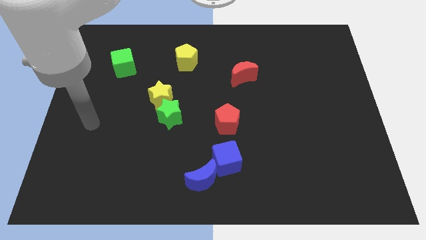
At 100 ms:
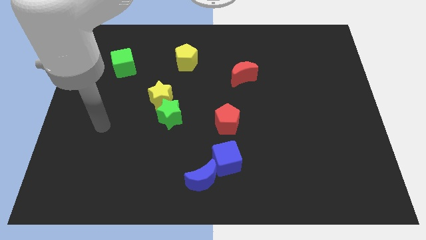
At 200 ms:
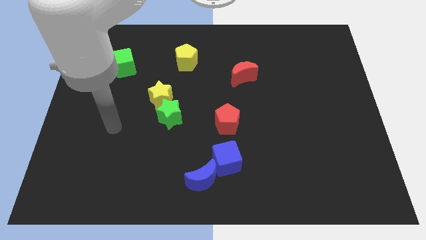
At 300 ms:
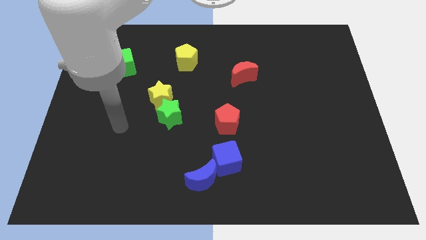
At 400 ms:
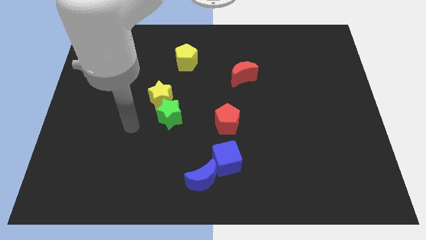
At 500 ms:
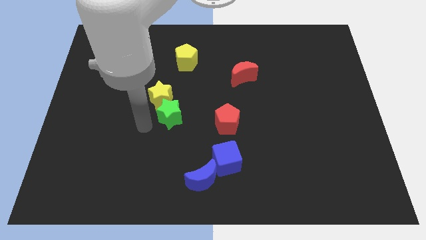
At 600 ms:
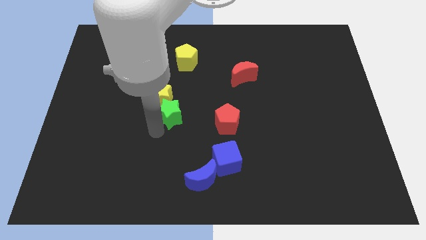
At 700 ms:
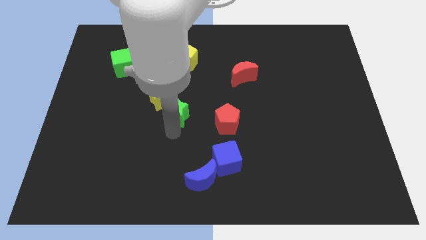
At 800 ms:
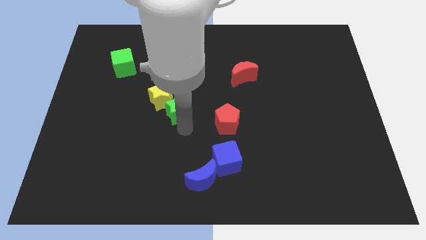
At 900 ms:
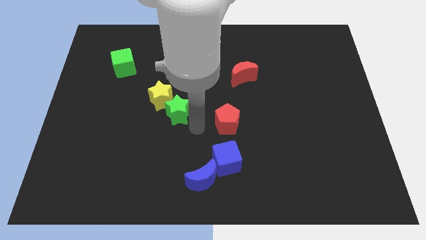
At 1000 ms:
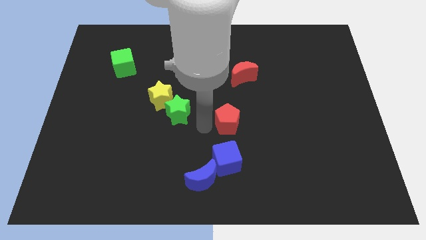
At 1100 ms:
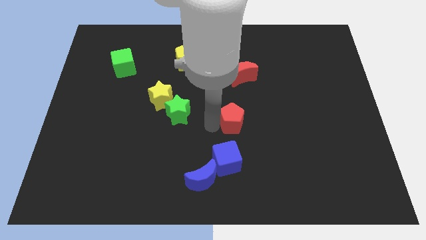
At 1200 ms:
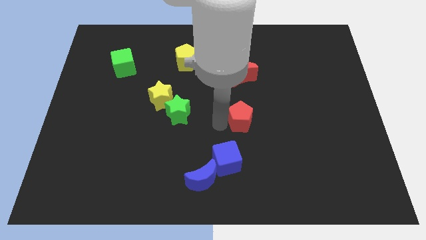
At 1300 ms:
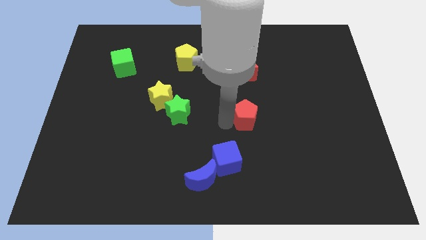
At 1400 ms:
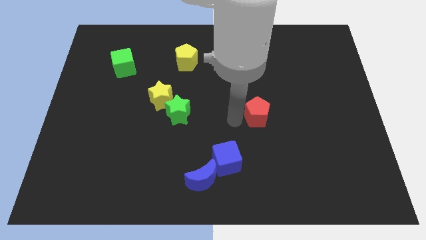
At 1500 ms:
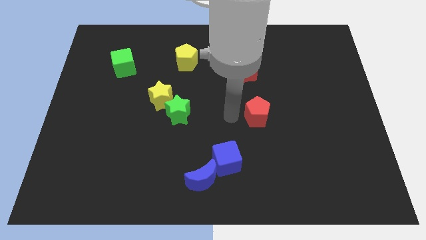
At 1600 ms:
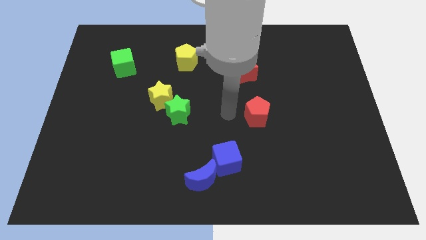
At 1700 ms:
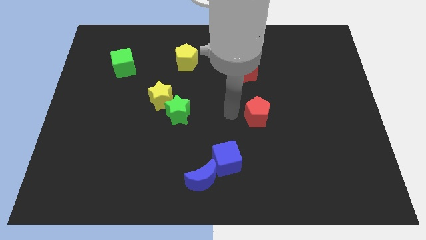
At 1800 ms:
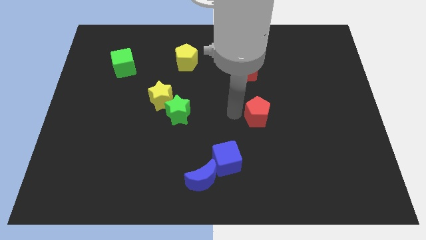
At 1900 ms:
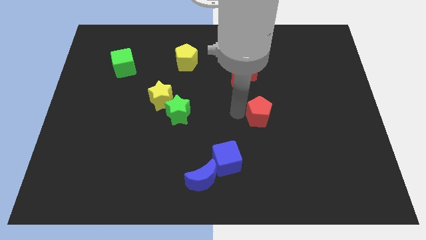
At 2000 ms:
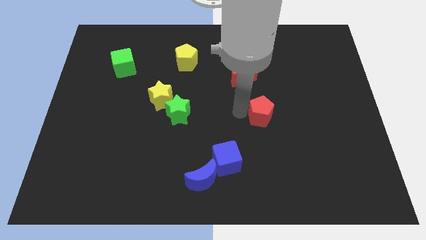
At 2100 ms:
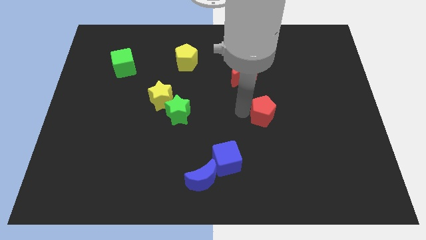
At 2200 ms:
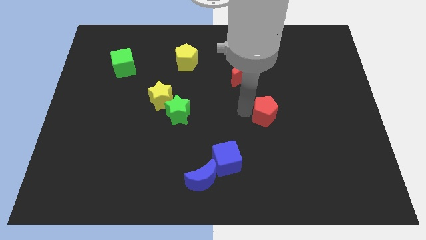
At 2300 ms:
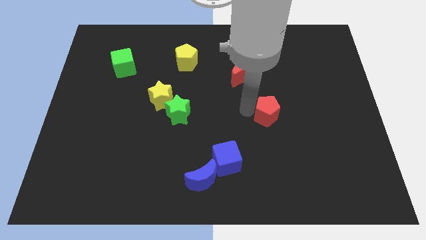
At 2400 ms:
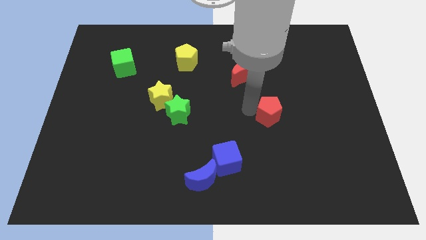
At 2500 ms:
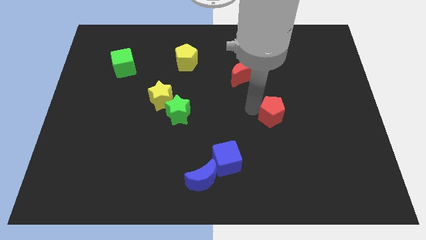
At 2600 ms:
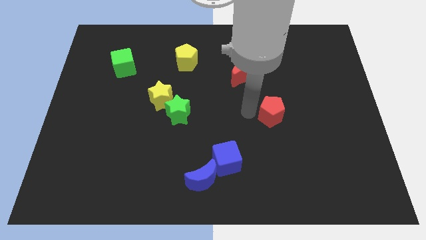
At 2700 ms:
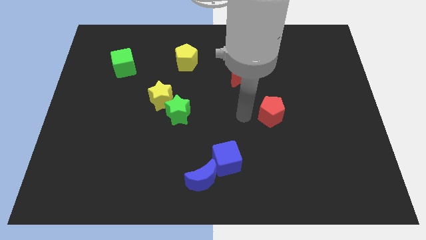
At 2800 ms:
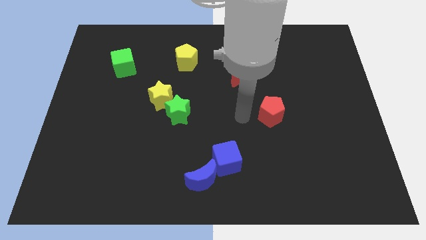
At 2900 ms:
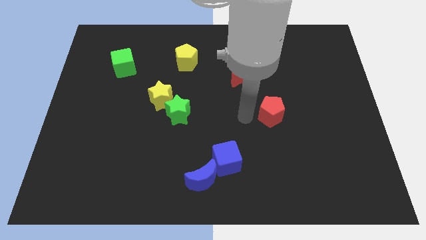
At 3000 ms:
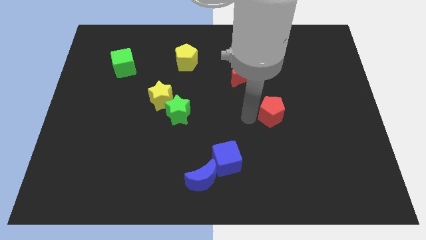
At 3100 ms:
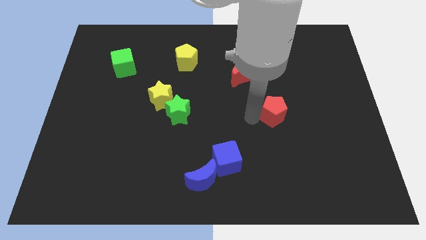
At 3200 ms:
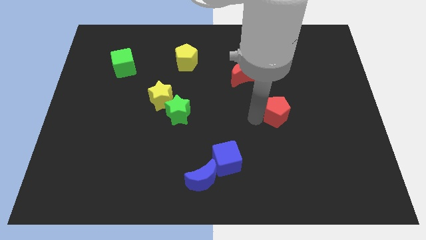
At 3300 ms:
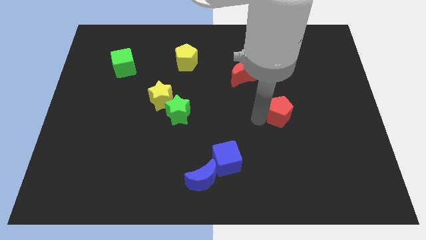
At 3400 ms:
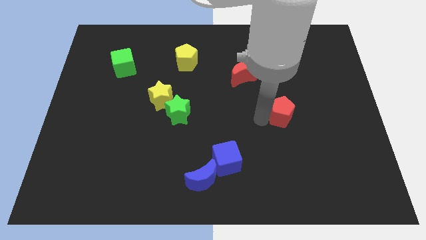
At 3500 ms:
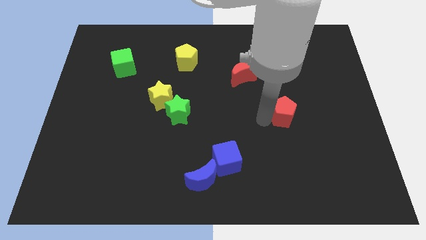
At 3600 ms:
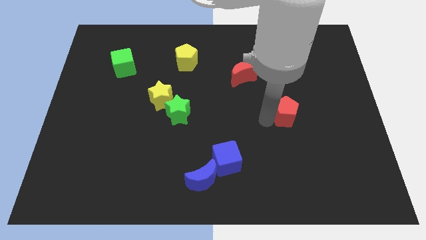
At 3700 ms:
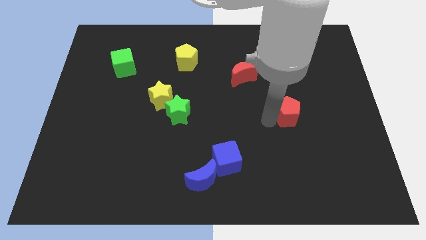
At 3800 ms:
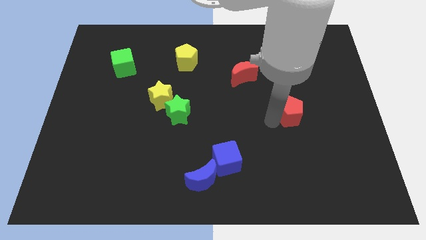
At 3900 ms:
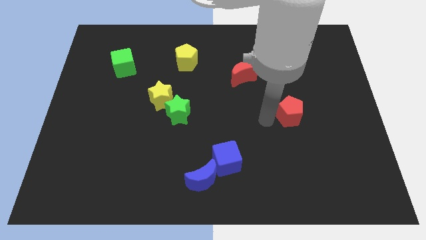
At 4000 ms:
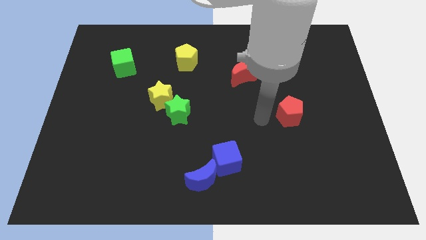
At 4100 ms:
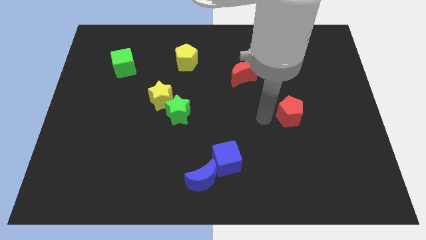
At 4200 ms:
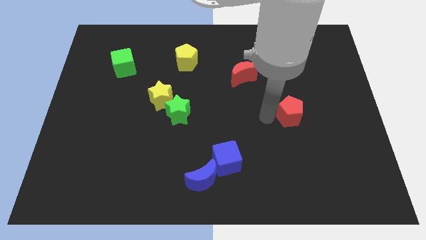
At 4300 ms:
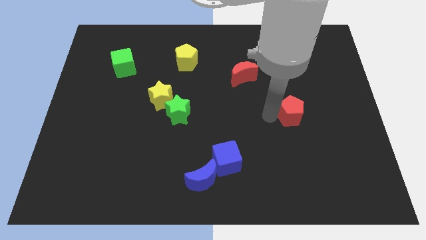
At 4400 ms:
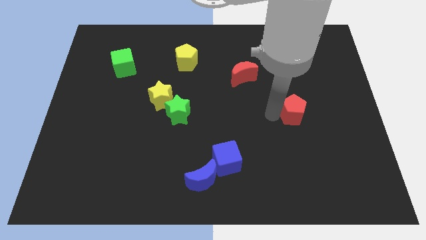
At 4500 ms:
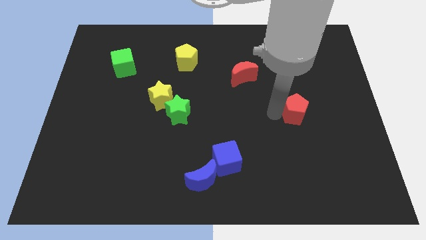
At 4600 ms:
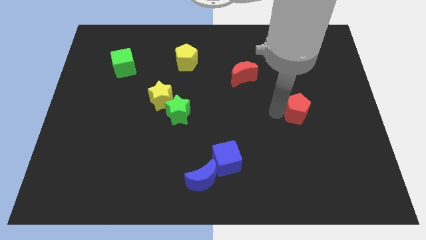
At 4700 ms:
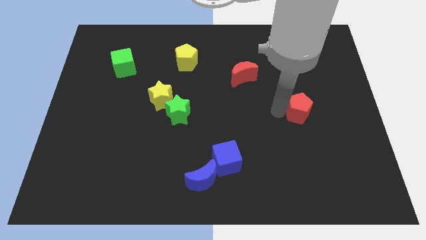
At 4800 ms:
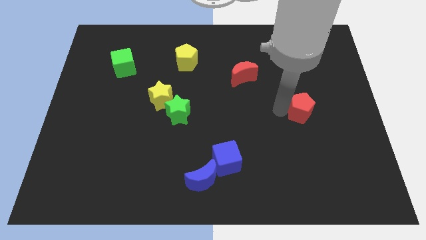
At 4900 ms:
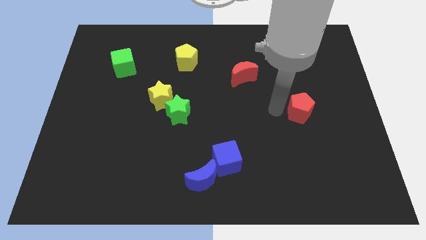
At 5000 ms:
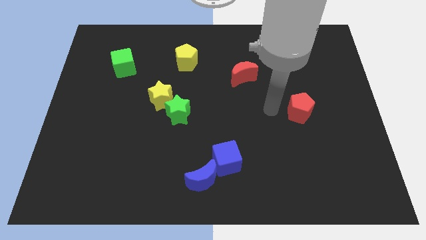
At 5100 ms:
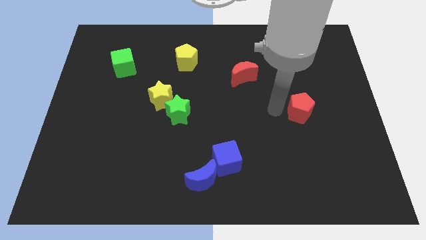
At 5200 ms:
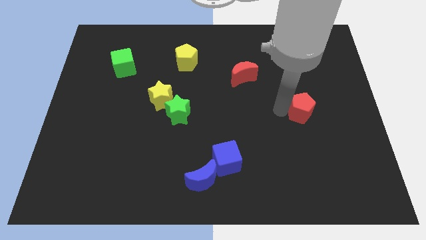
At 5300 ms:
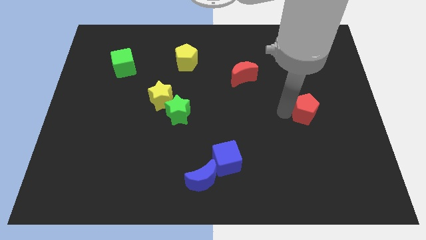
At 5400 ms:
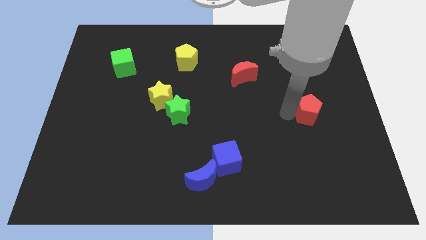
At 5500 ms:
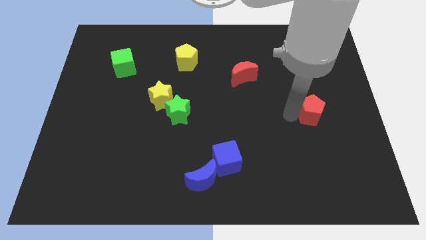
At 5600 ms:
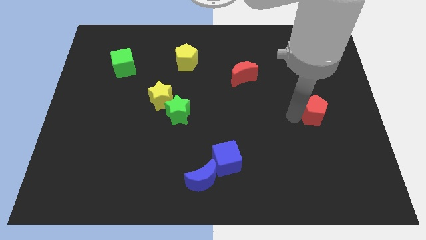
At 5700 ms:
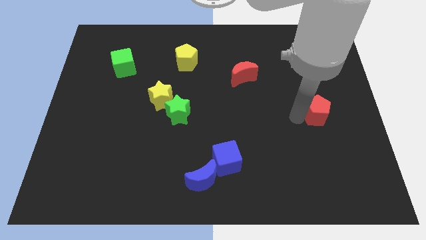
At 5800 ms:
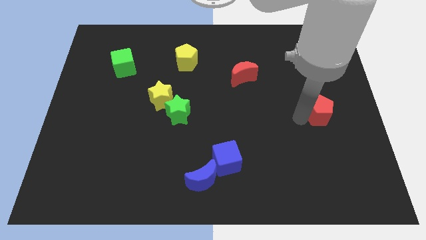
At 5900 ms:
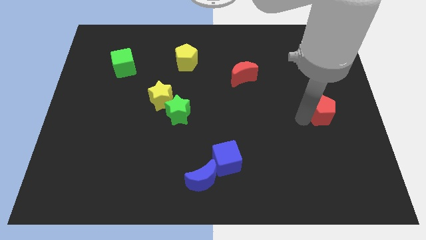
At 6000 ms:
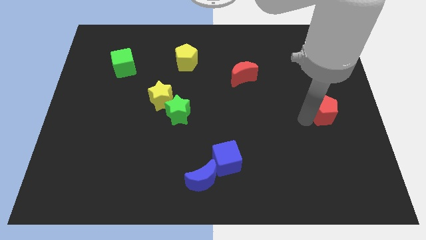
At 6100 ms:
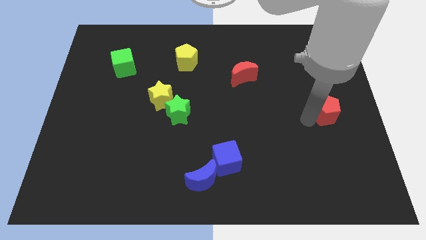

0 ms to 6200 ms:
slide the red pentagon to the right side
